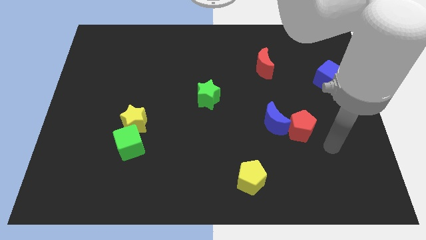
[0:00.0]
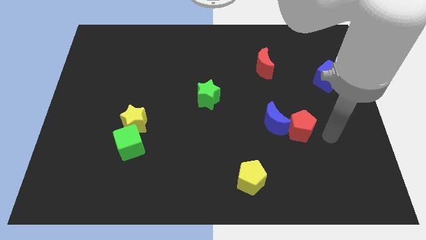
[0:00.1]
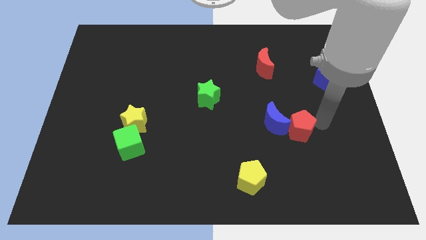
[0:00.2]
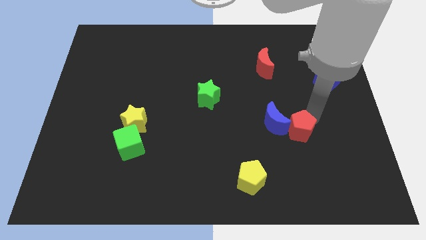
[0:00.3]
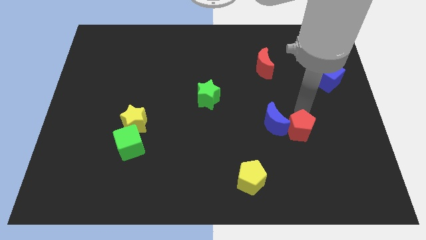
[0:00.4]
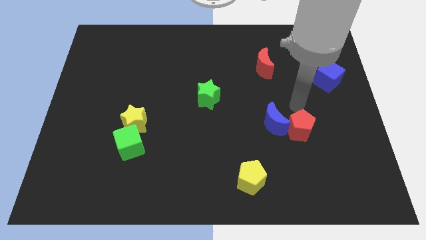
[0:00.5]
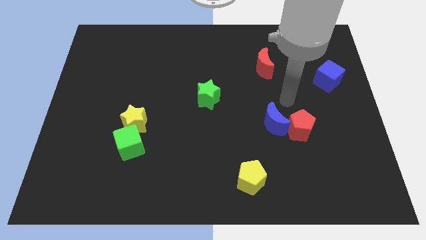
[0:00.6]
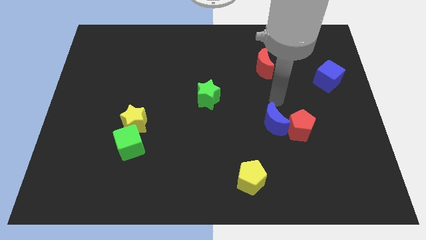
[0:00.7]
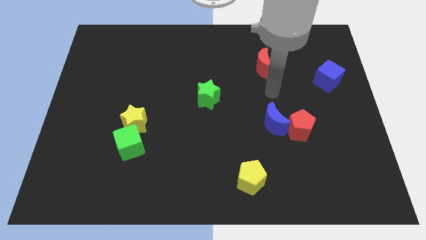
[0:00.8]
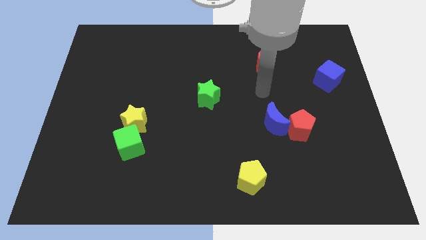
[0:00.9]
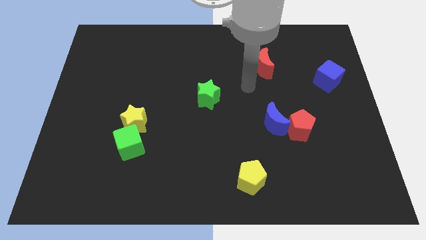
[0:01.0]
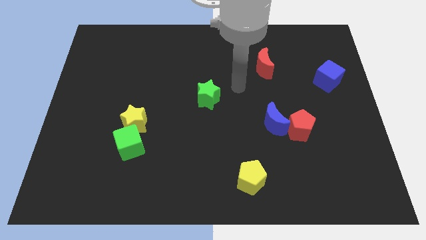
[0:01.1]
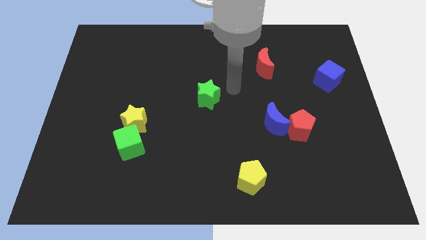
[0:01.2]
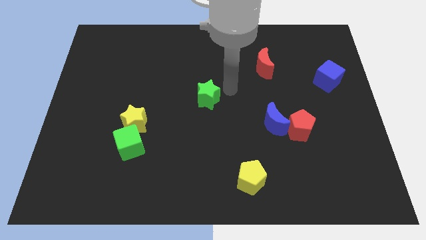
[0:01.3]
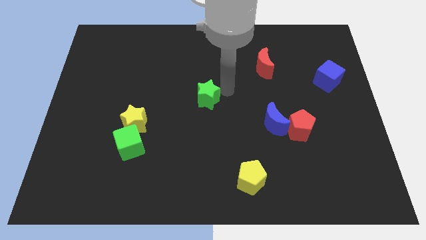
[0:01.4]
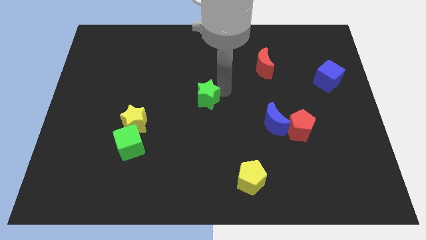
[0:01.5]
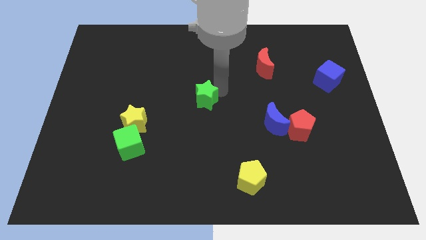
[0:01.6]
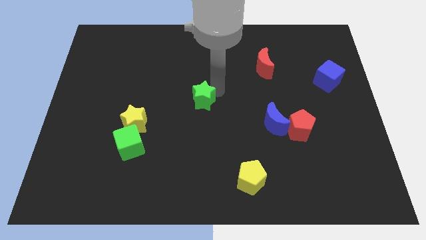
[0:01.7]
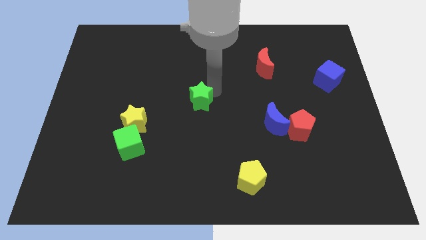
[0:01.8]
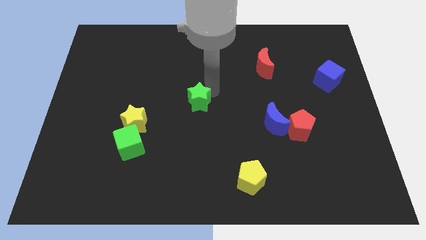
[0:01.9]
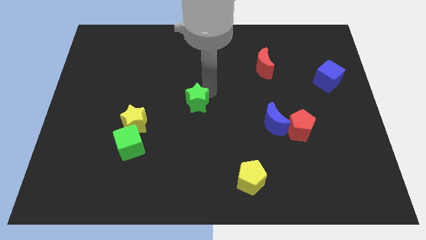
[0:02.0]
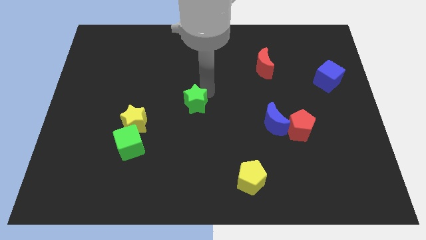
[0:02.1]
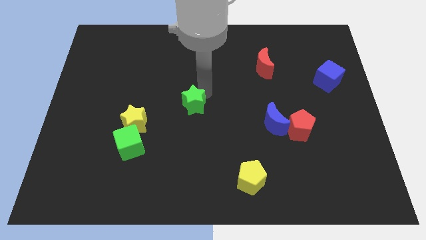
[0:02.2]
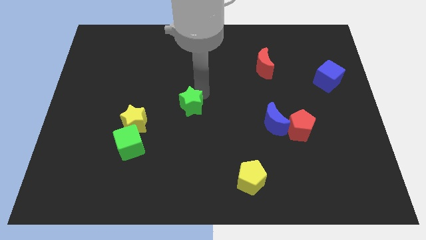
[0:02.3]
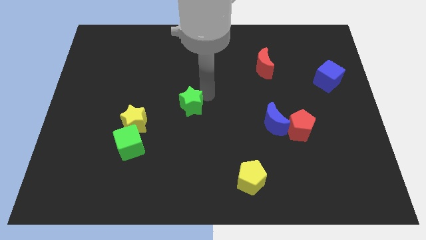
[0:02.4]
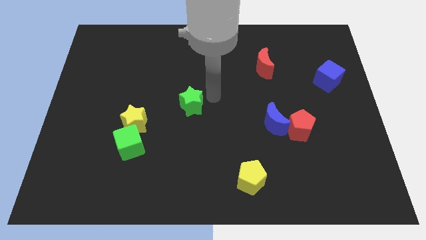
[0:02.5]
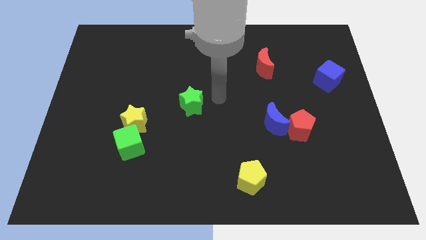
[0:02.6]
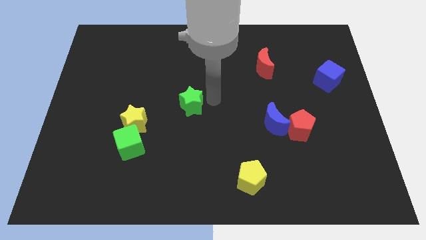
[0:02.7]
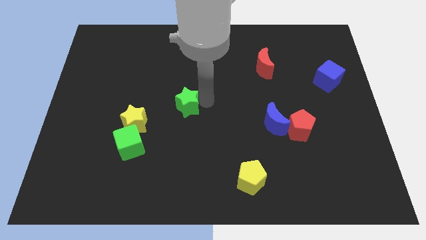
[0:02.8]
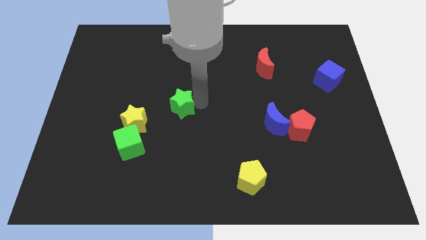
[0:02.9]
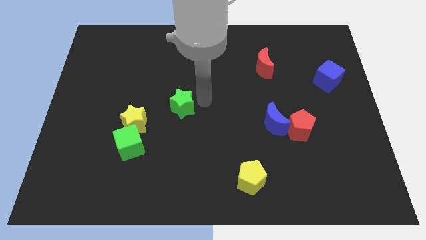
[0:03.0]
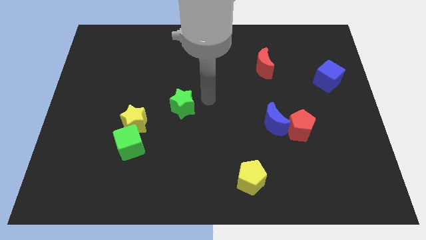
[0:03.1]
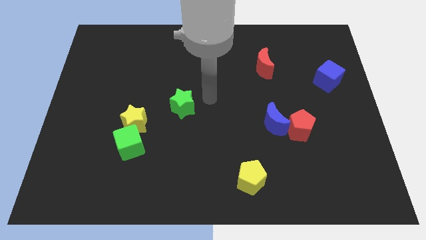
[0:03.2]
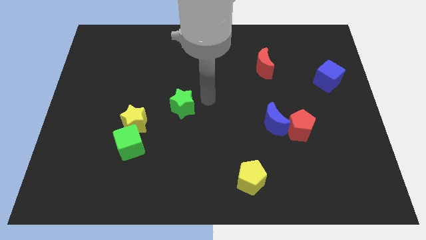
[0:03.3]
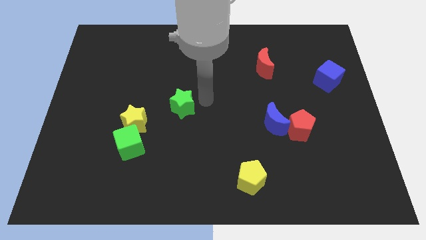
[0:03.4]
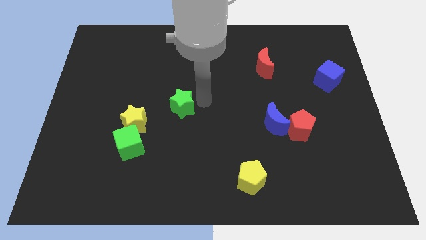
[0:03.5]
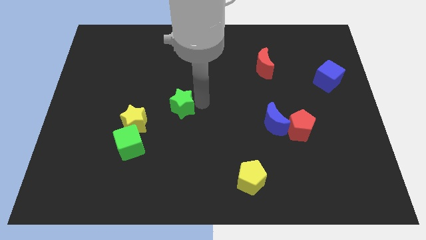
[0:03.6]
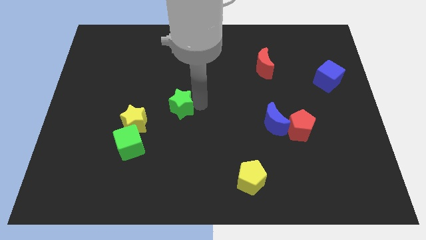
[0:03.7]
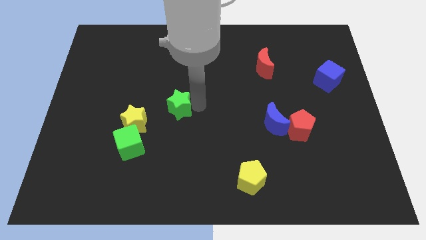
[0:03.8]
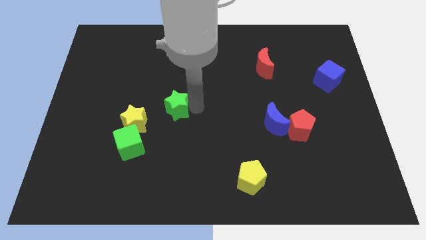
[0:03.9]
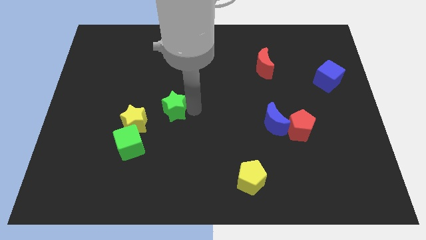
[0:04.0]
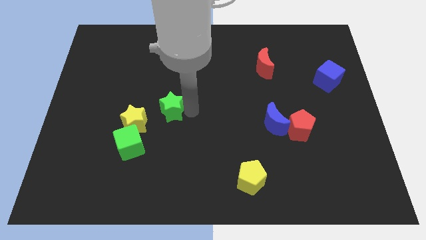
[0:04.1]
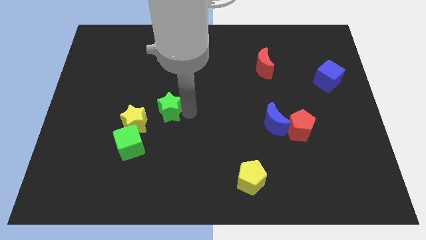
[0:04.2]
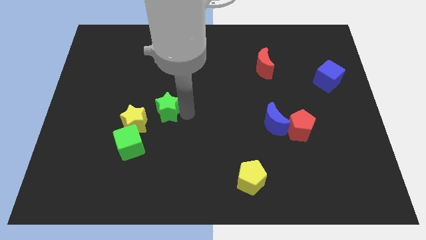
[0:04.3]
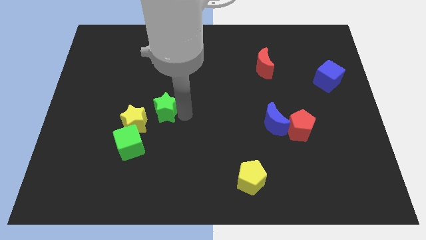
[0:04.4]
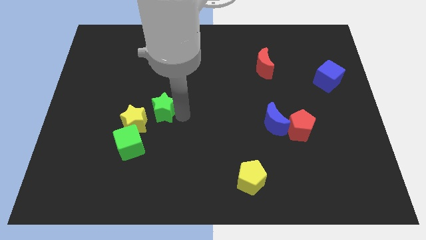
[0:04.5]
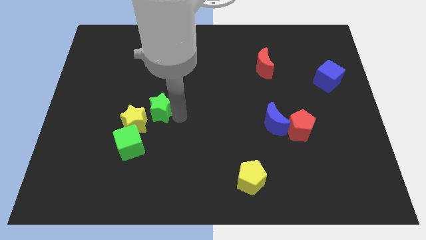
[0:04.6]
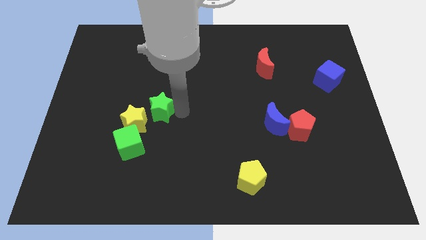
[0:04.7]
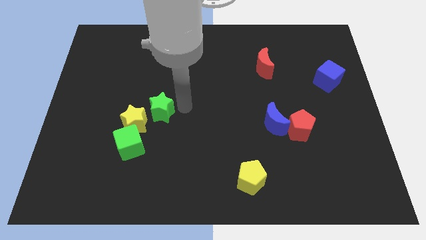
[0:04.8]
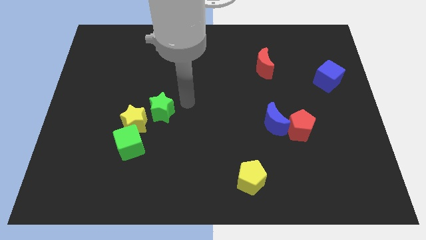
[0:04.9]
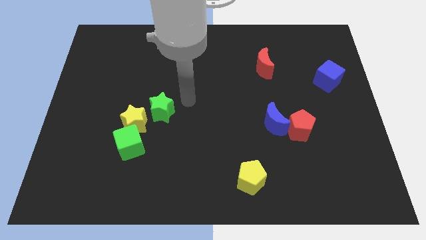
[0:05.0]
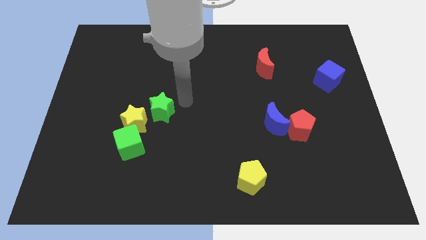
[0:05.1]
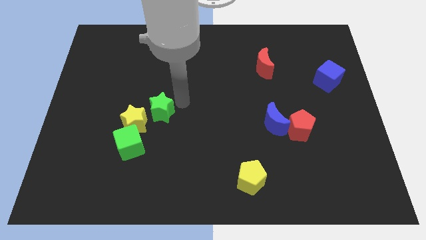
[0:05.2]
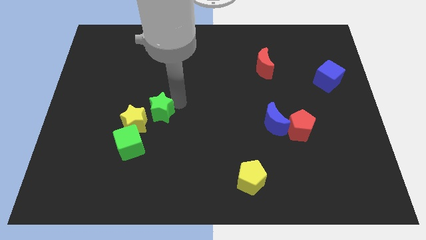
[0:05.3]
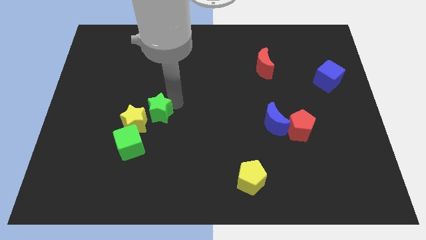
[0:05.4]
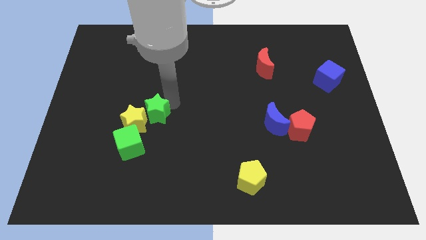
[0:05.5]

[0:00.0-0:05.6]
push the green star close to the yellow star

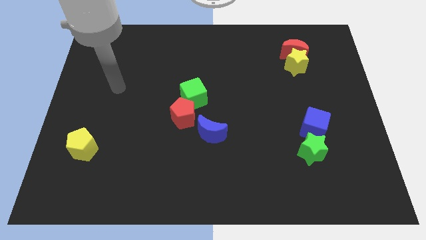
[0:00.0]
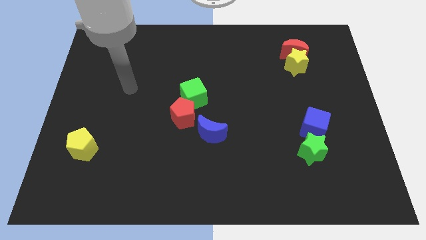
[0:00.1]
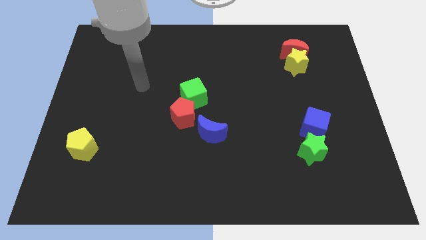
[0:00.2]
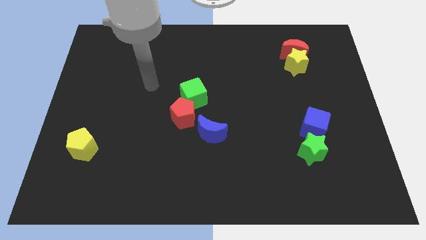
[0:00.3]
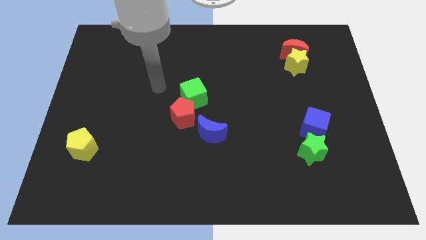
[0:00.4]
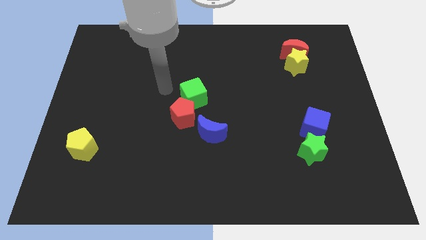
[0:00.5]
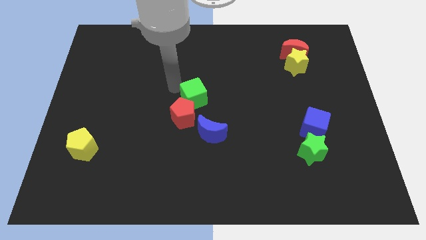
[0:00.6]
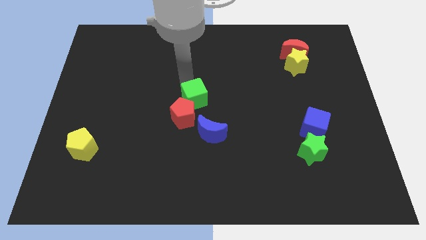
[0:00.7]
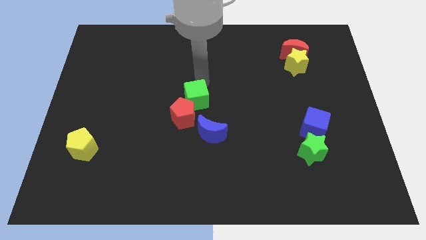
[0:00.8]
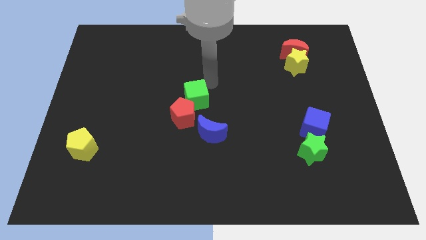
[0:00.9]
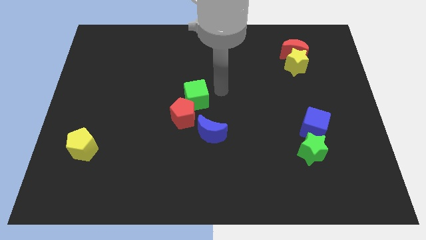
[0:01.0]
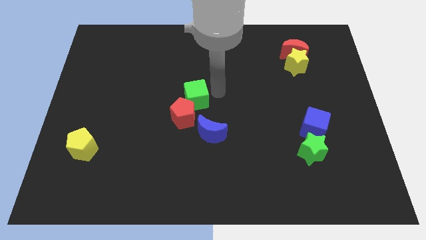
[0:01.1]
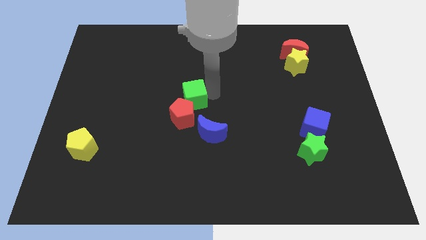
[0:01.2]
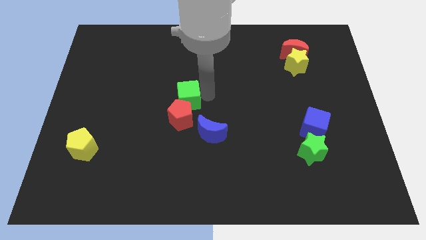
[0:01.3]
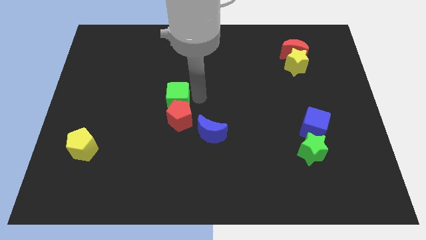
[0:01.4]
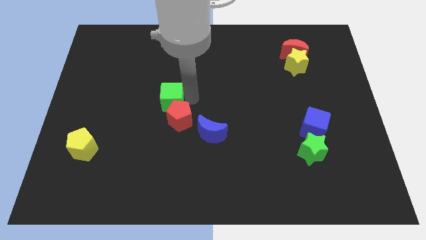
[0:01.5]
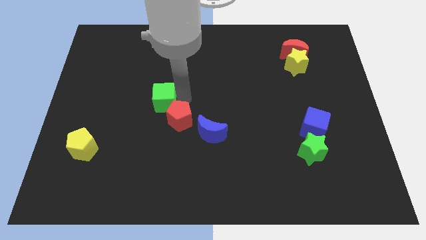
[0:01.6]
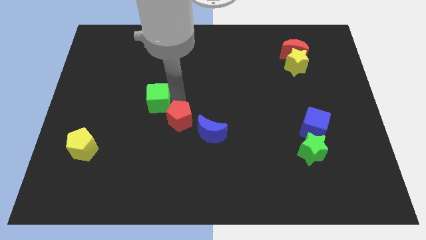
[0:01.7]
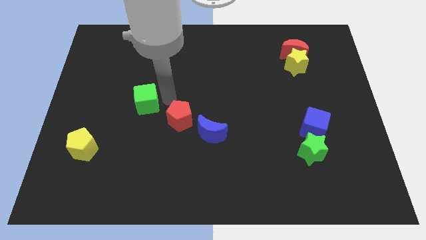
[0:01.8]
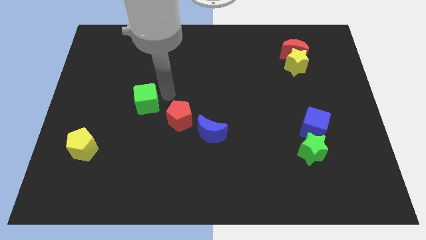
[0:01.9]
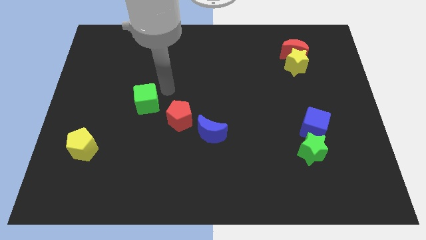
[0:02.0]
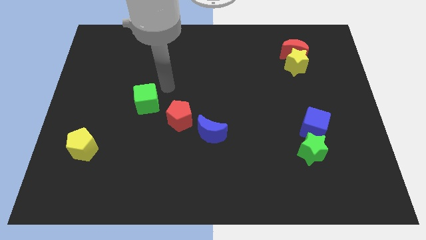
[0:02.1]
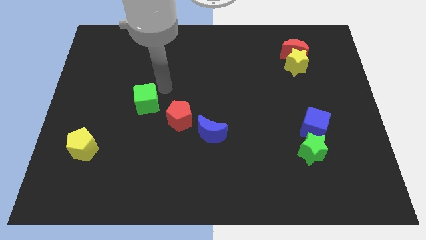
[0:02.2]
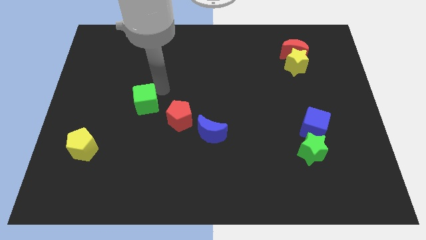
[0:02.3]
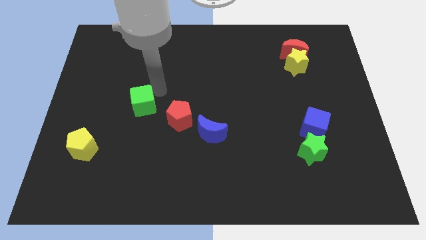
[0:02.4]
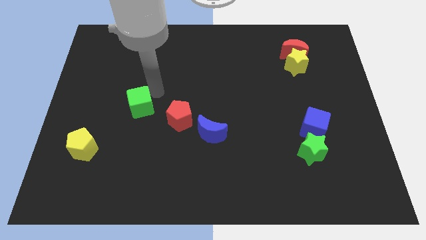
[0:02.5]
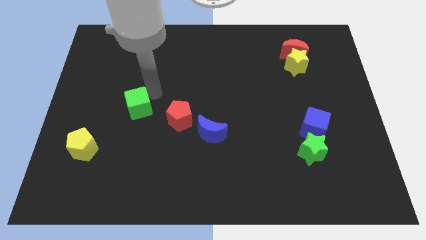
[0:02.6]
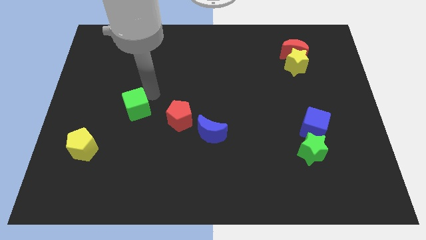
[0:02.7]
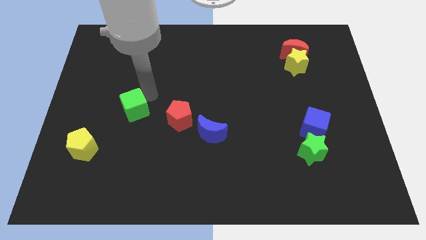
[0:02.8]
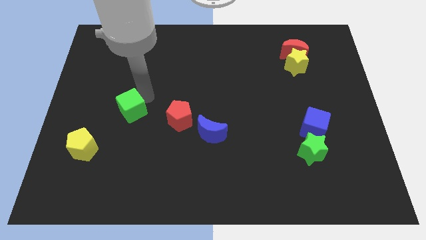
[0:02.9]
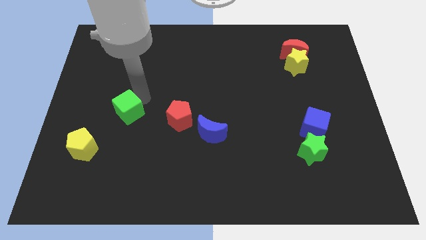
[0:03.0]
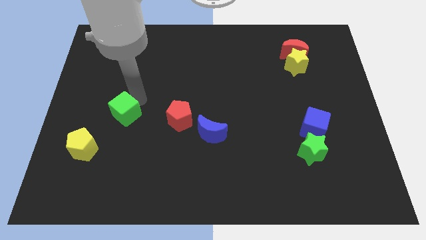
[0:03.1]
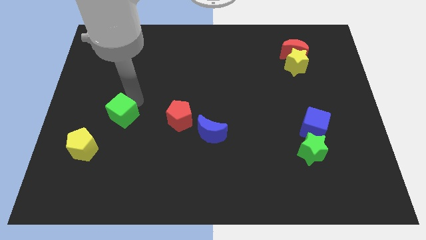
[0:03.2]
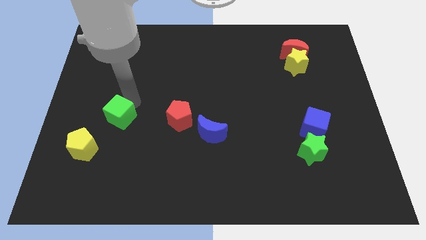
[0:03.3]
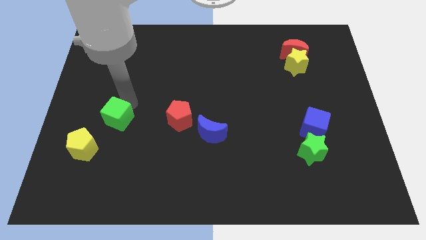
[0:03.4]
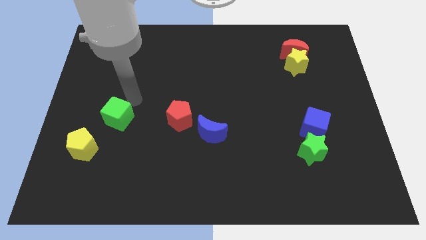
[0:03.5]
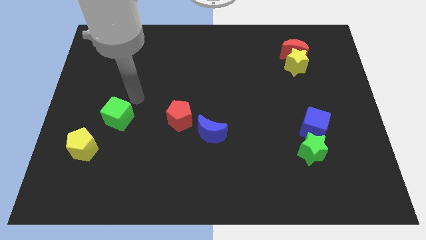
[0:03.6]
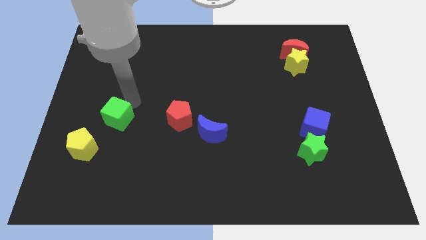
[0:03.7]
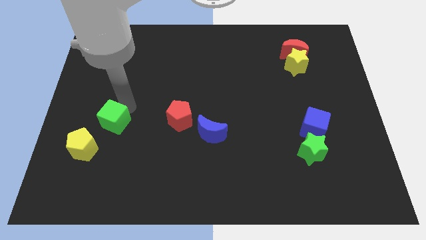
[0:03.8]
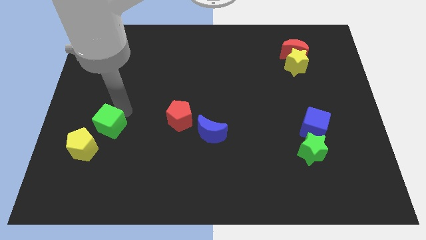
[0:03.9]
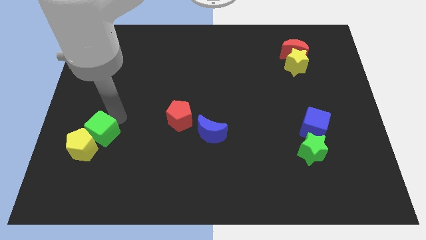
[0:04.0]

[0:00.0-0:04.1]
move the green cube close to the yellow pentagon
